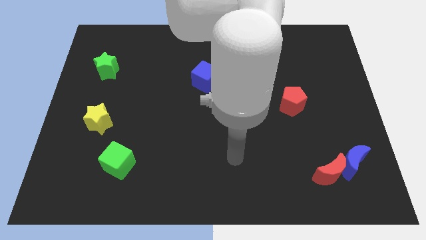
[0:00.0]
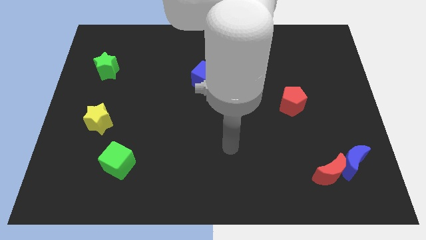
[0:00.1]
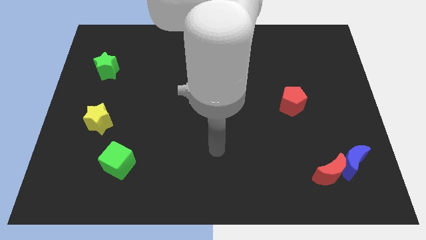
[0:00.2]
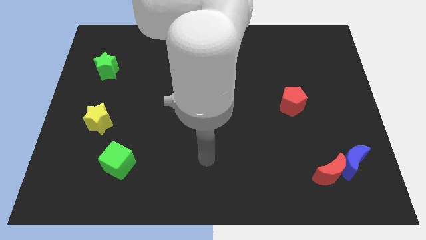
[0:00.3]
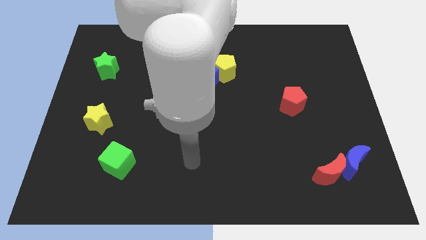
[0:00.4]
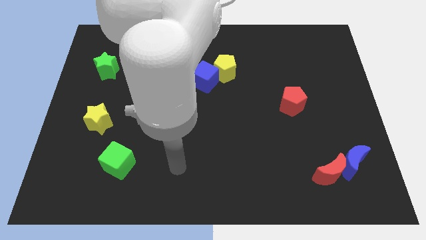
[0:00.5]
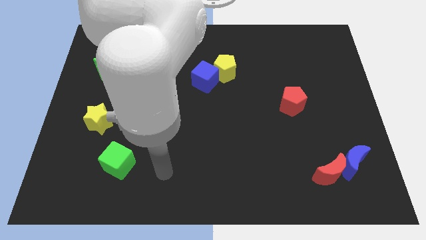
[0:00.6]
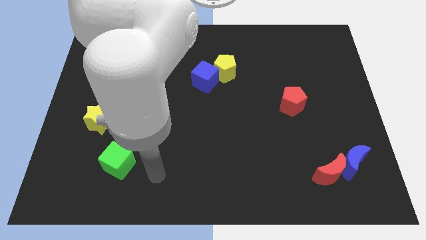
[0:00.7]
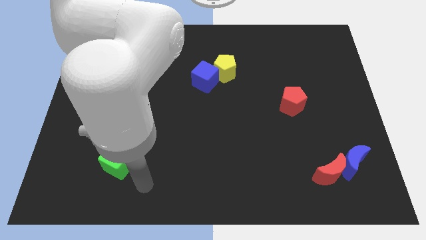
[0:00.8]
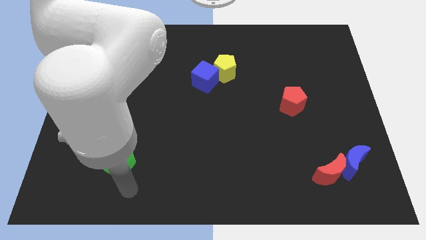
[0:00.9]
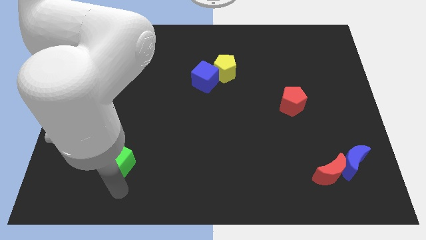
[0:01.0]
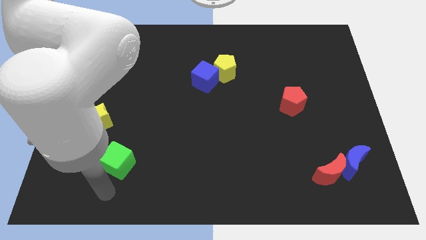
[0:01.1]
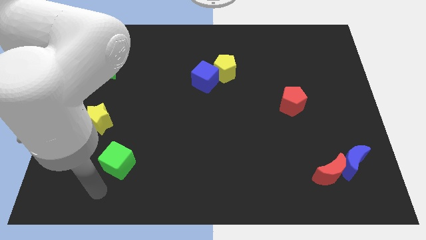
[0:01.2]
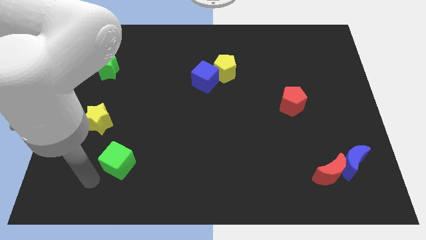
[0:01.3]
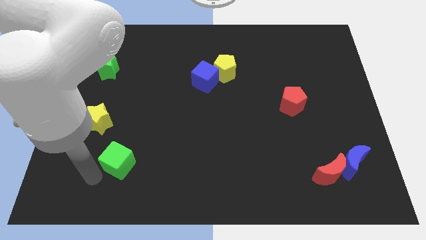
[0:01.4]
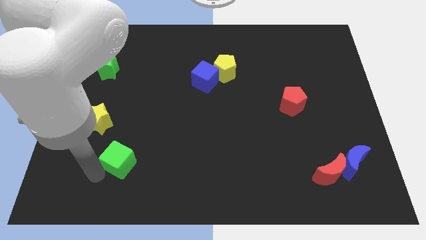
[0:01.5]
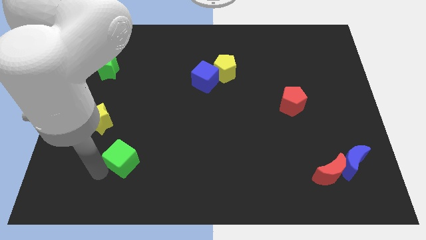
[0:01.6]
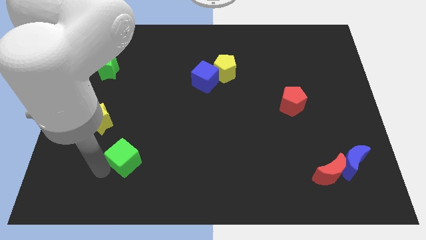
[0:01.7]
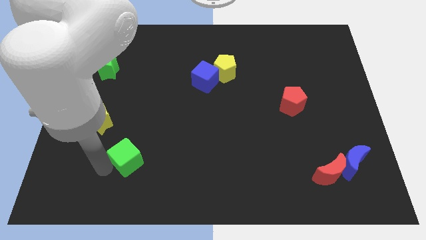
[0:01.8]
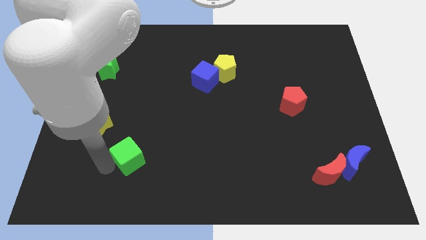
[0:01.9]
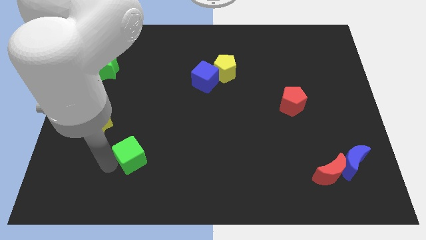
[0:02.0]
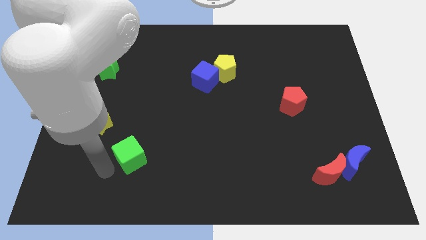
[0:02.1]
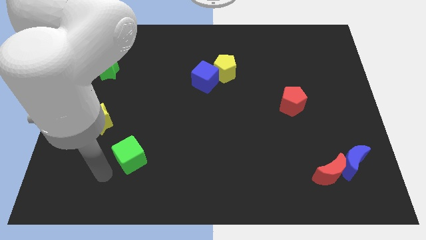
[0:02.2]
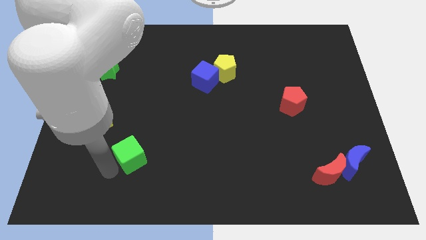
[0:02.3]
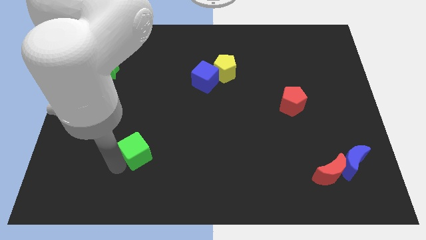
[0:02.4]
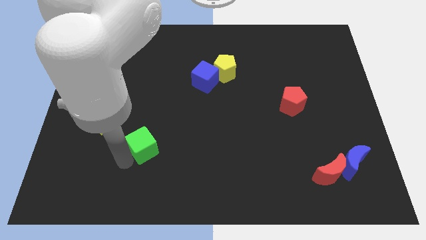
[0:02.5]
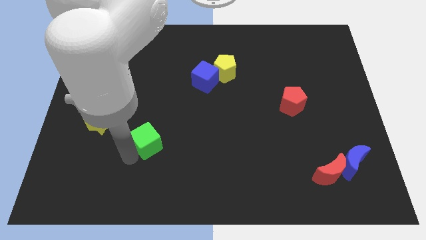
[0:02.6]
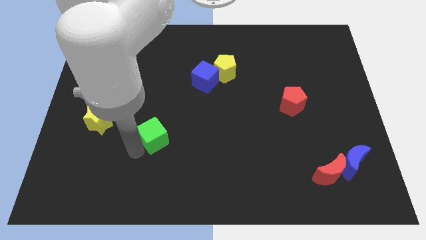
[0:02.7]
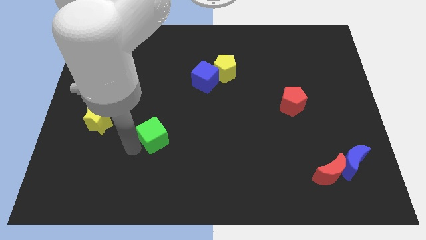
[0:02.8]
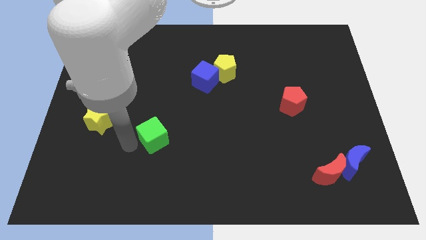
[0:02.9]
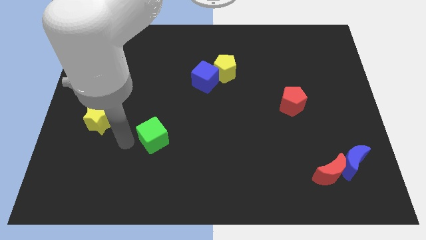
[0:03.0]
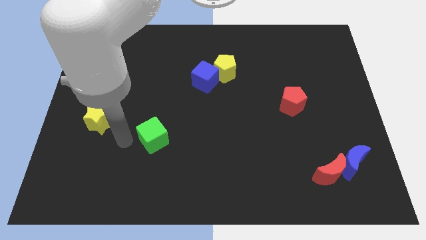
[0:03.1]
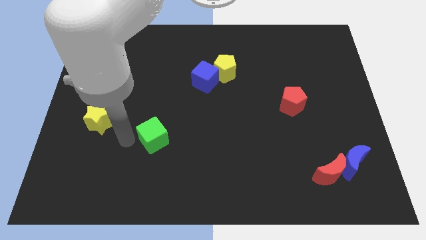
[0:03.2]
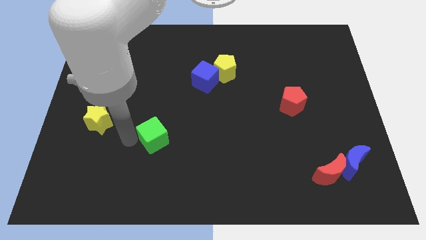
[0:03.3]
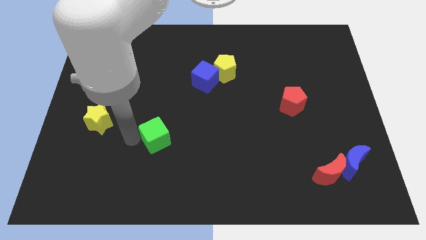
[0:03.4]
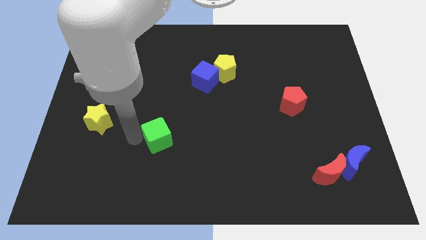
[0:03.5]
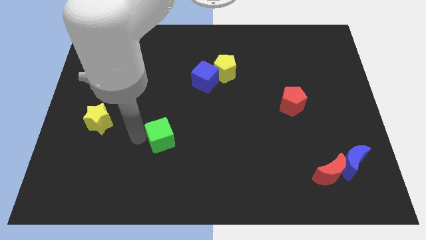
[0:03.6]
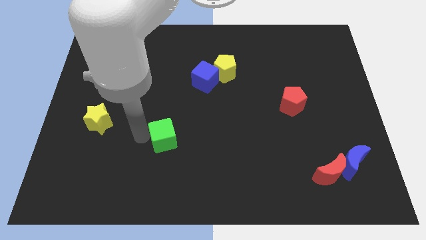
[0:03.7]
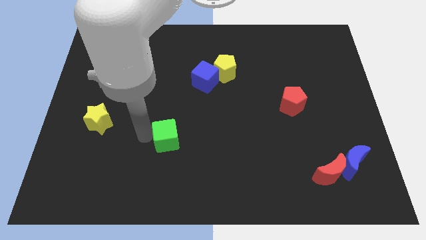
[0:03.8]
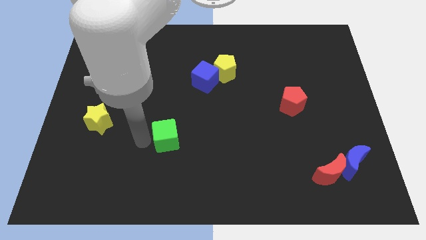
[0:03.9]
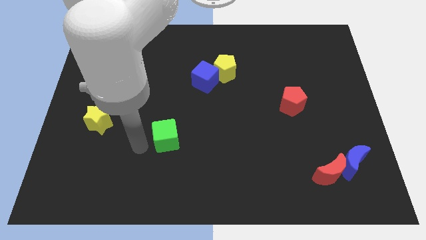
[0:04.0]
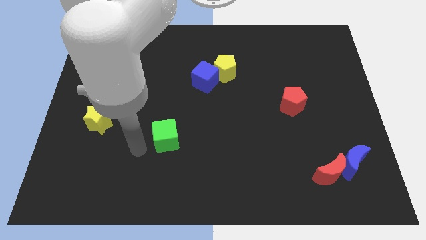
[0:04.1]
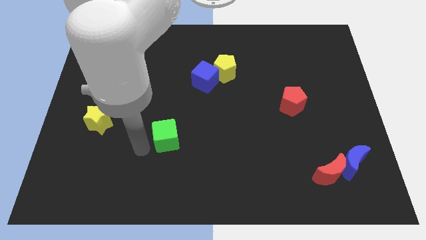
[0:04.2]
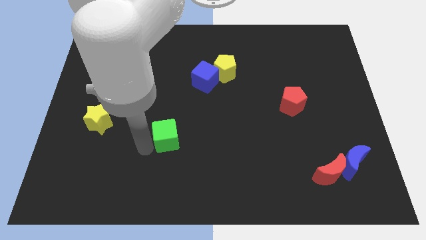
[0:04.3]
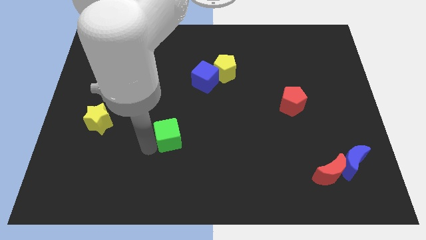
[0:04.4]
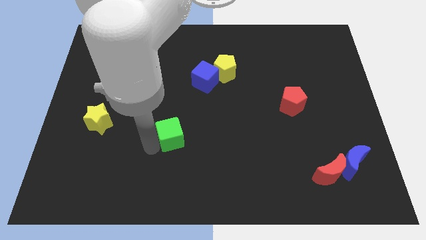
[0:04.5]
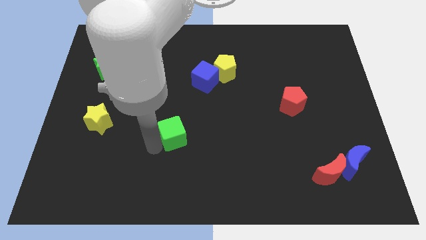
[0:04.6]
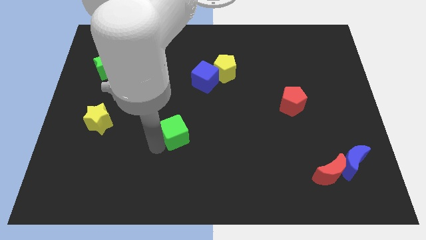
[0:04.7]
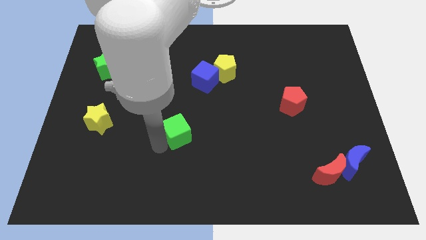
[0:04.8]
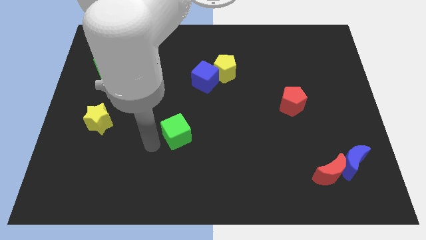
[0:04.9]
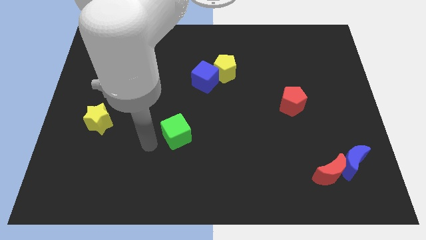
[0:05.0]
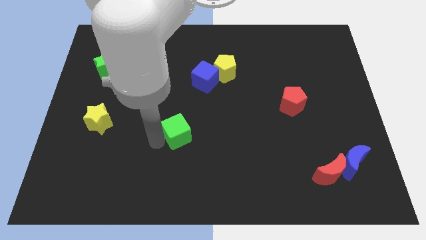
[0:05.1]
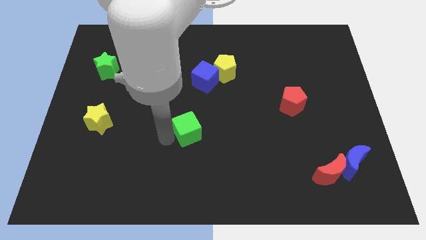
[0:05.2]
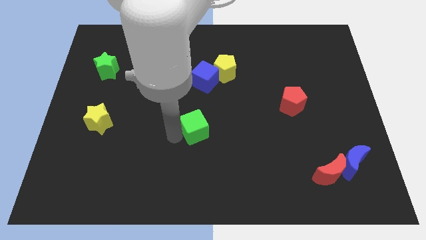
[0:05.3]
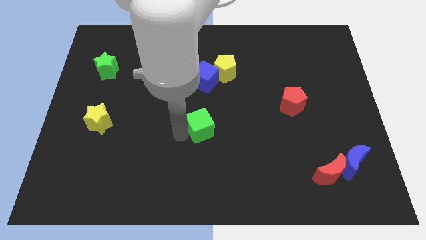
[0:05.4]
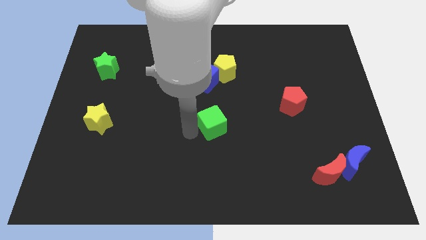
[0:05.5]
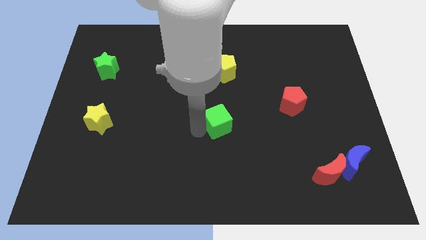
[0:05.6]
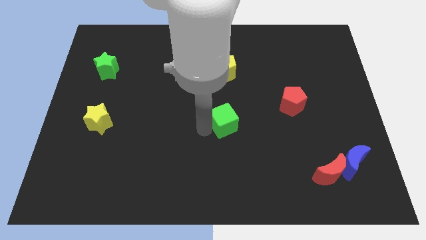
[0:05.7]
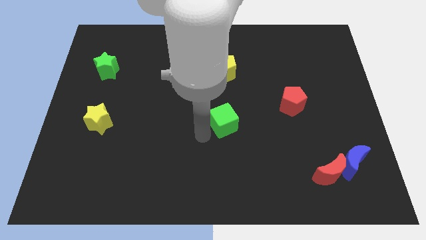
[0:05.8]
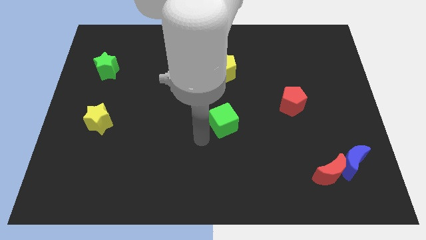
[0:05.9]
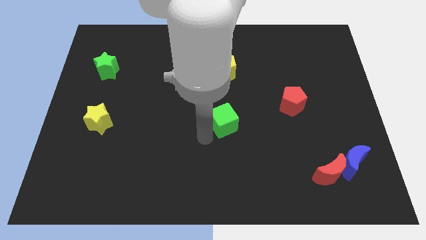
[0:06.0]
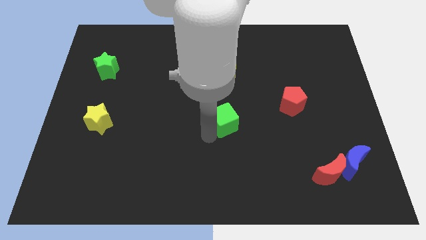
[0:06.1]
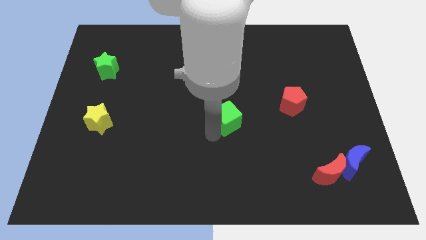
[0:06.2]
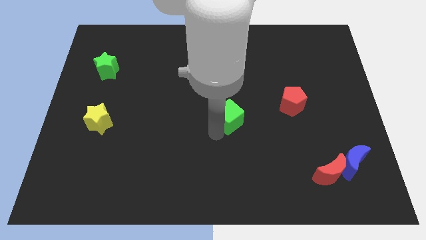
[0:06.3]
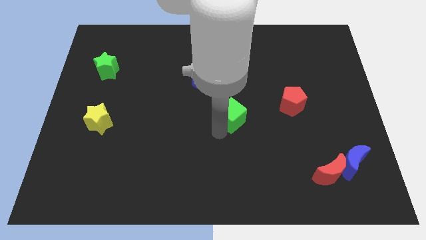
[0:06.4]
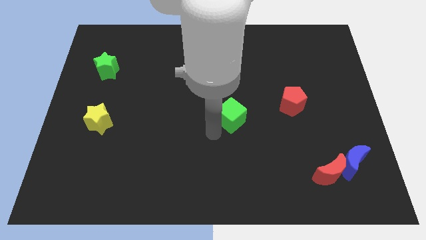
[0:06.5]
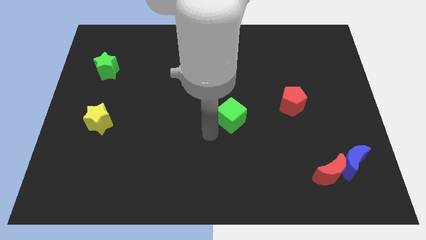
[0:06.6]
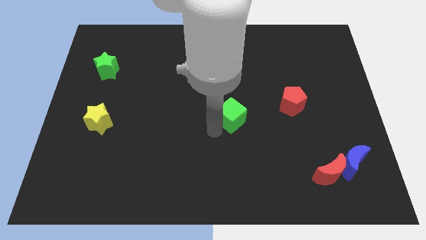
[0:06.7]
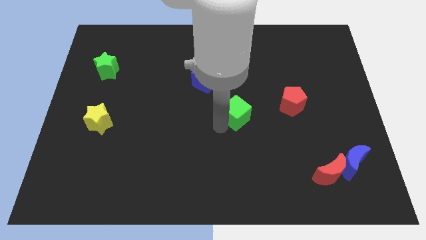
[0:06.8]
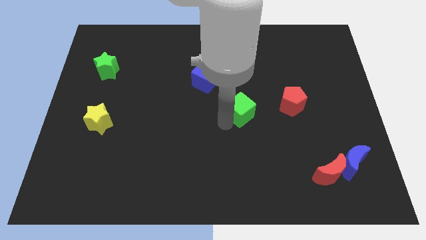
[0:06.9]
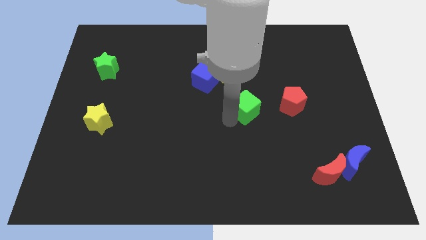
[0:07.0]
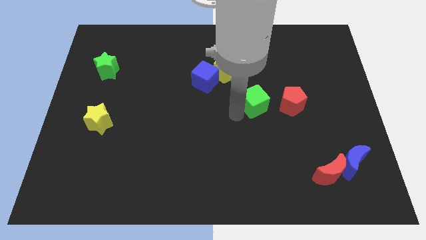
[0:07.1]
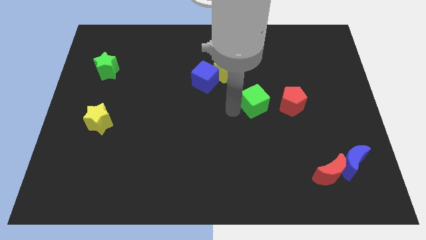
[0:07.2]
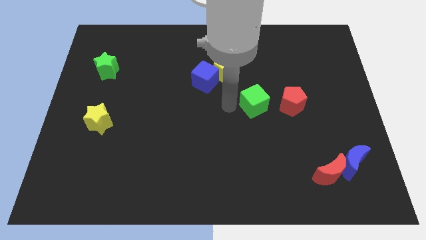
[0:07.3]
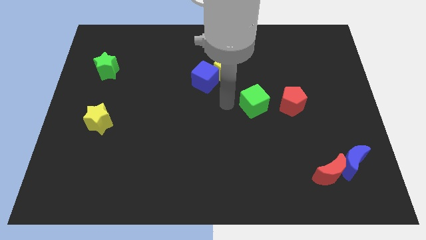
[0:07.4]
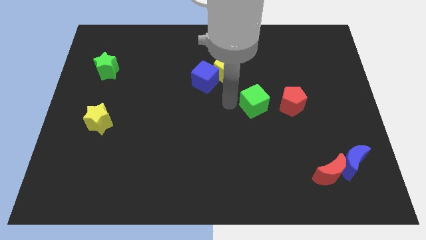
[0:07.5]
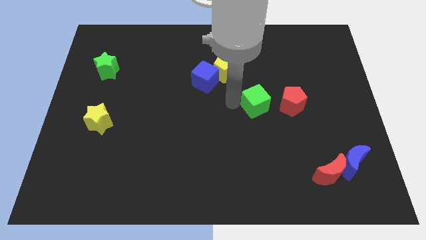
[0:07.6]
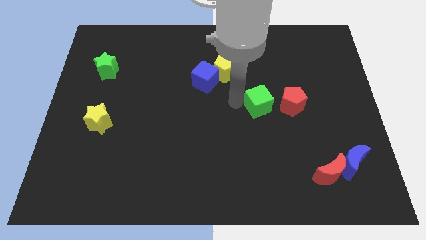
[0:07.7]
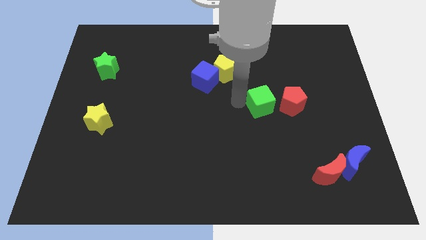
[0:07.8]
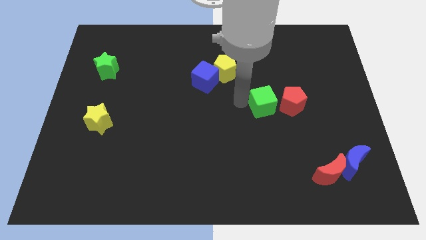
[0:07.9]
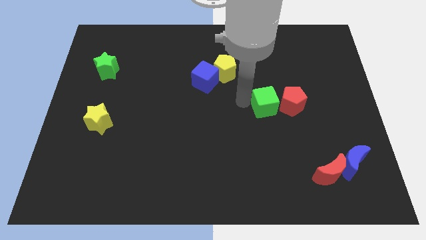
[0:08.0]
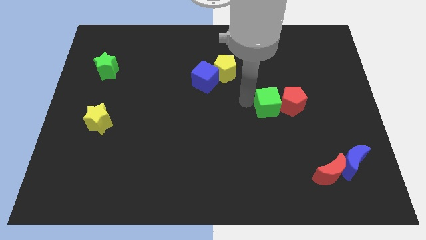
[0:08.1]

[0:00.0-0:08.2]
move the green cube close to the red pentagon
